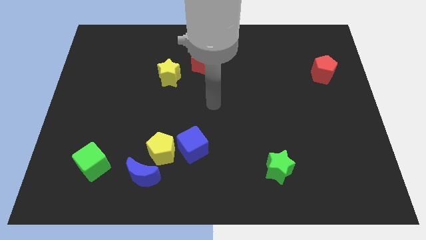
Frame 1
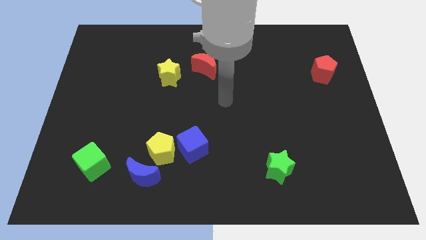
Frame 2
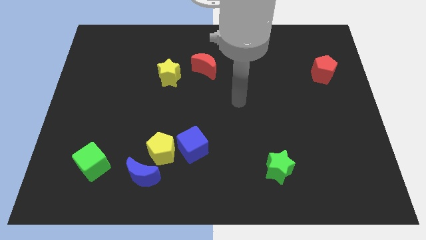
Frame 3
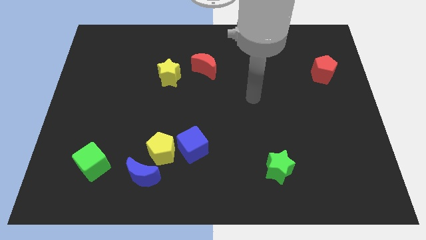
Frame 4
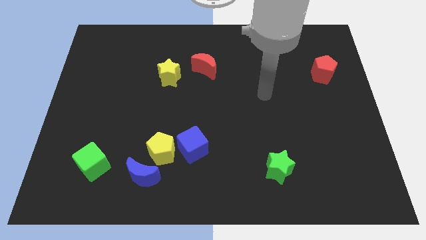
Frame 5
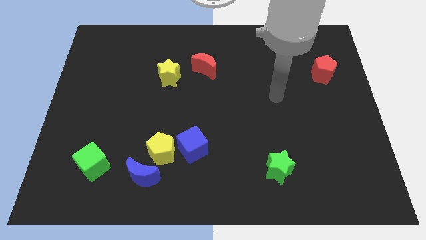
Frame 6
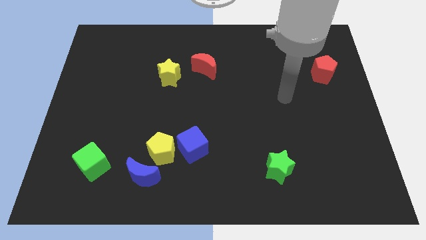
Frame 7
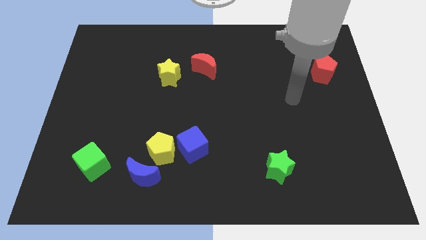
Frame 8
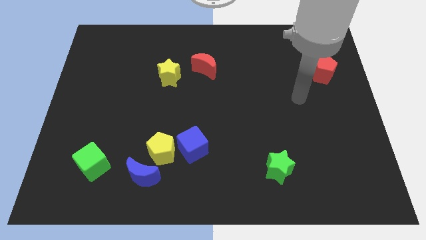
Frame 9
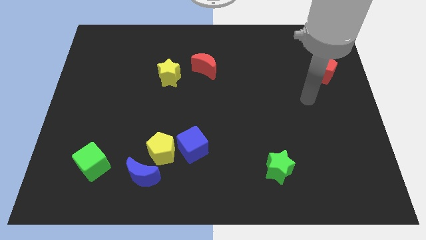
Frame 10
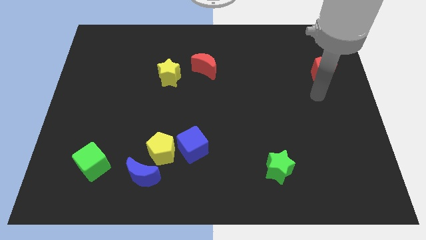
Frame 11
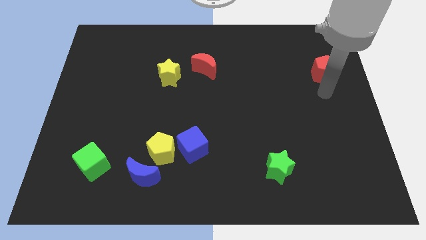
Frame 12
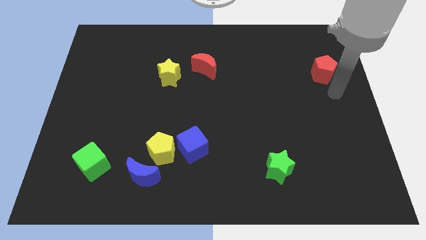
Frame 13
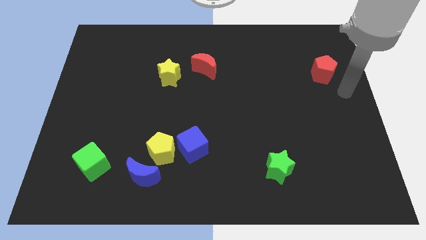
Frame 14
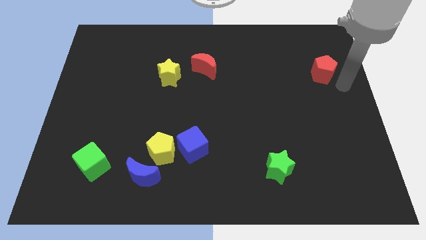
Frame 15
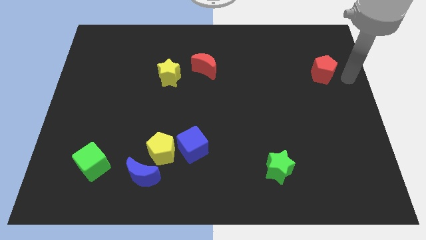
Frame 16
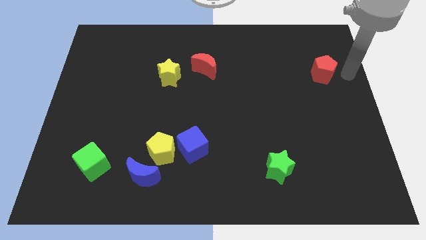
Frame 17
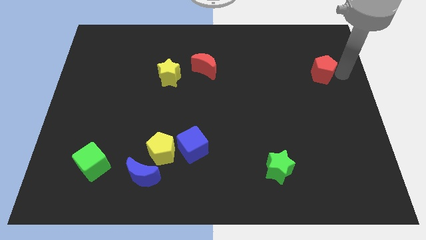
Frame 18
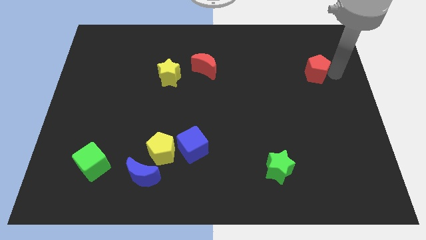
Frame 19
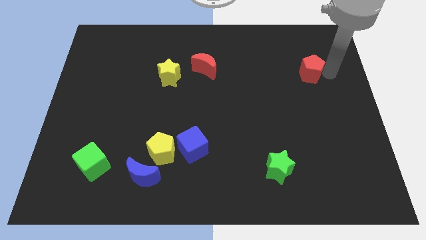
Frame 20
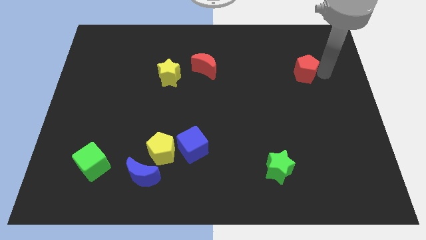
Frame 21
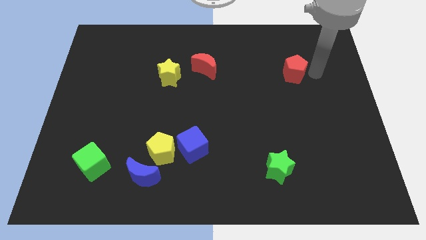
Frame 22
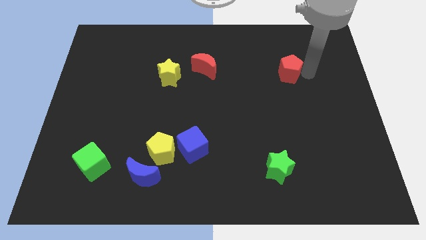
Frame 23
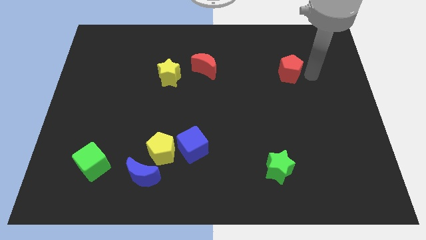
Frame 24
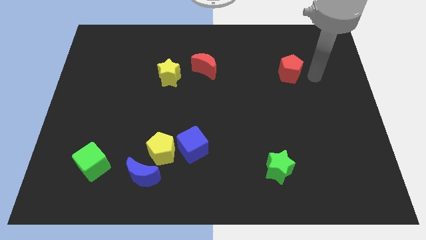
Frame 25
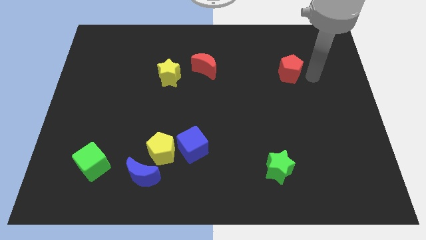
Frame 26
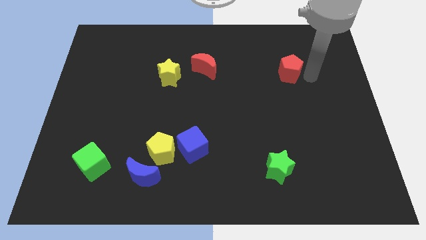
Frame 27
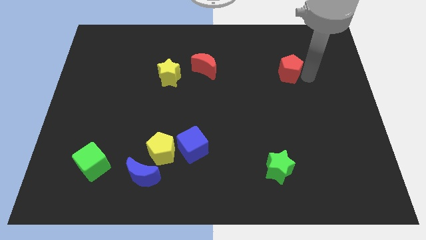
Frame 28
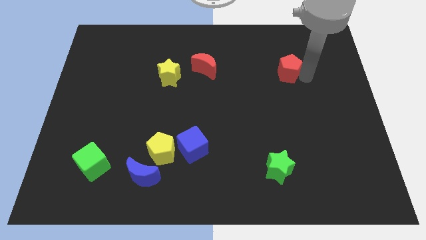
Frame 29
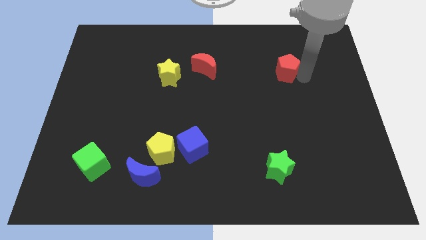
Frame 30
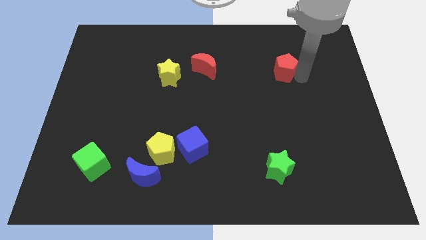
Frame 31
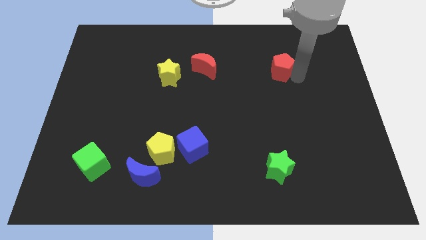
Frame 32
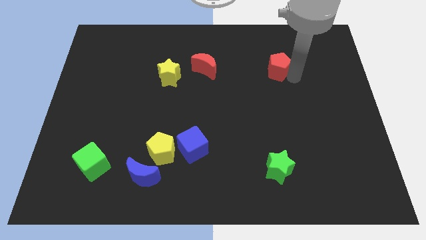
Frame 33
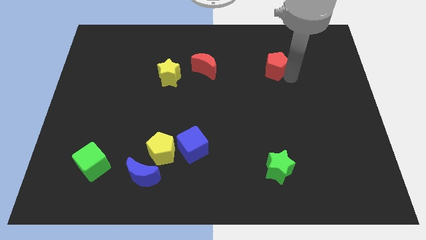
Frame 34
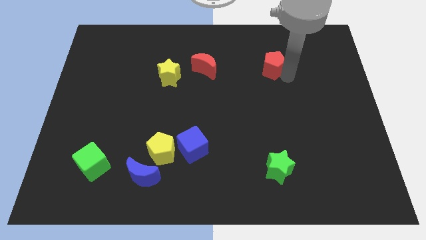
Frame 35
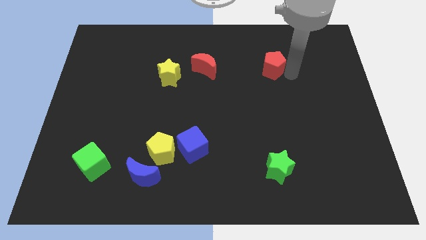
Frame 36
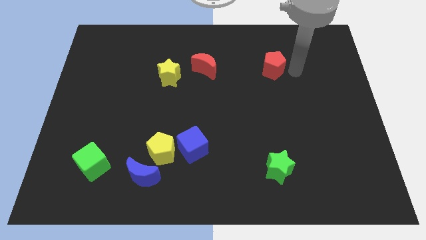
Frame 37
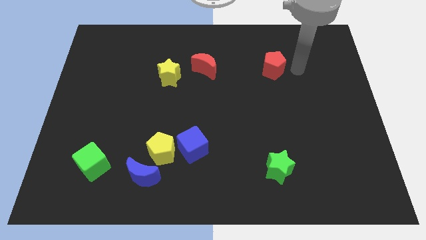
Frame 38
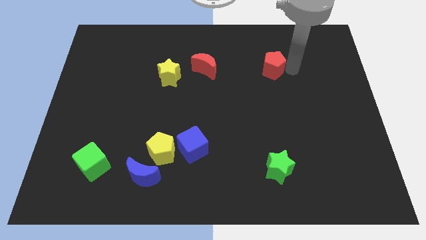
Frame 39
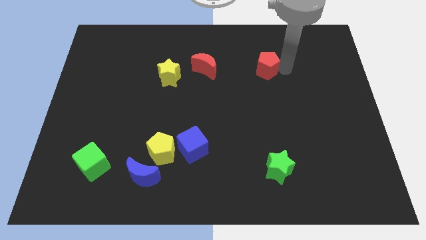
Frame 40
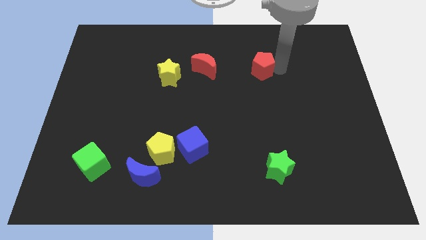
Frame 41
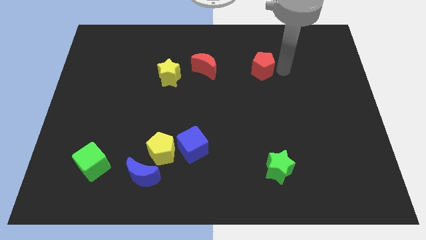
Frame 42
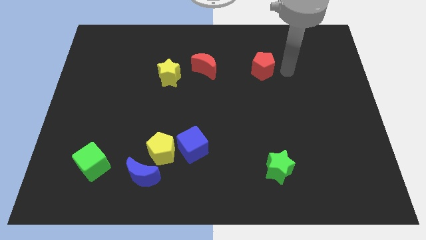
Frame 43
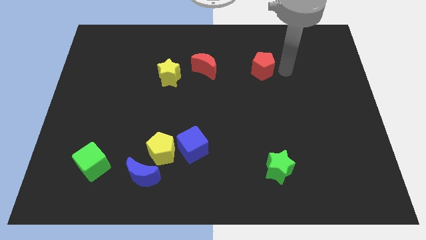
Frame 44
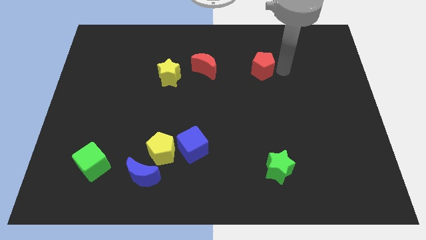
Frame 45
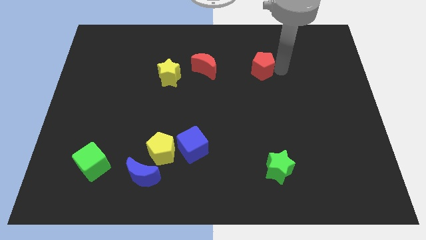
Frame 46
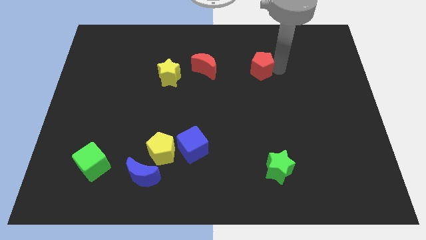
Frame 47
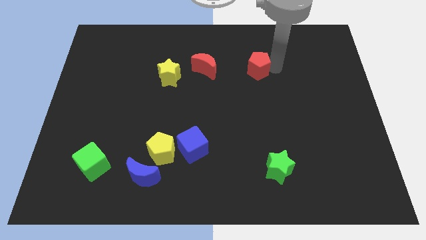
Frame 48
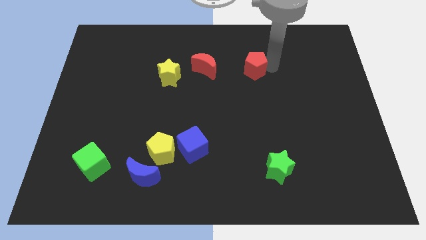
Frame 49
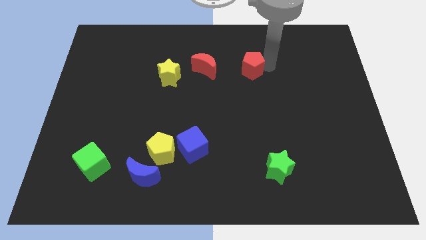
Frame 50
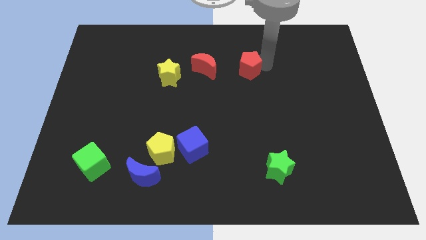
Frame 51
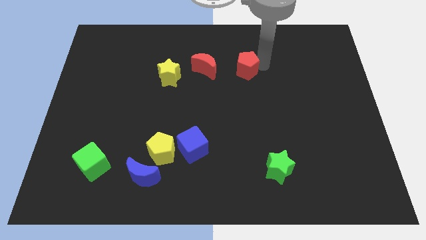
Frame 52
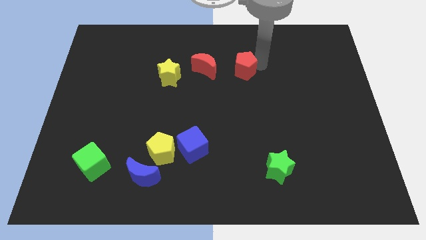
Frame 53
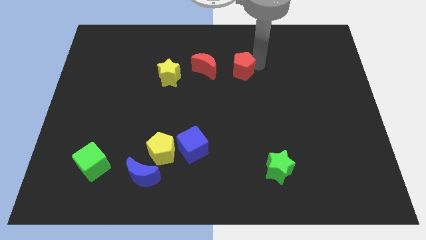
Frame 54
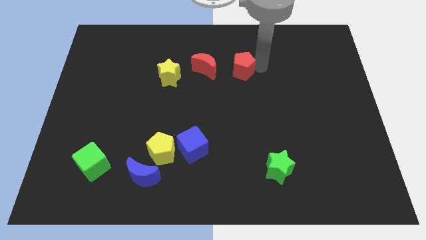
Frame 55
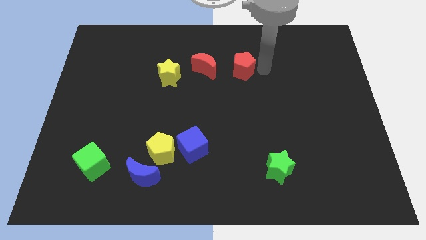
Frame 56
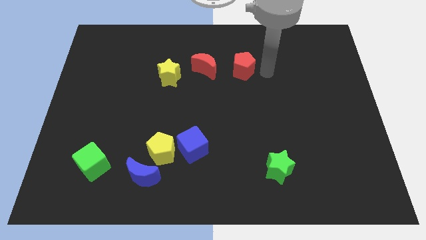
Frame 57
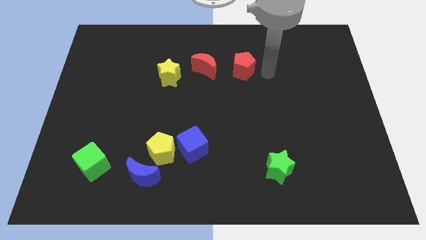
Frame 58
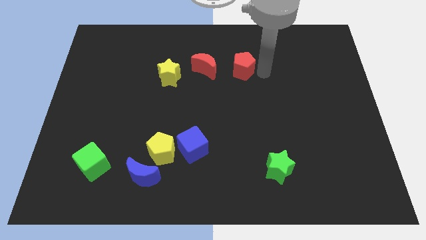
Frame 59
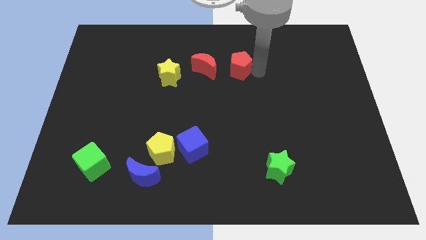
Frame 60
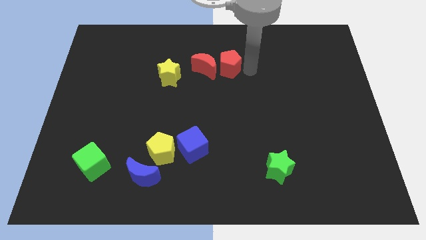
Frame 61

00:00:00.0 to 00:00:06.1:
move the red pentagon to the red moon
